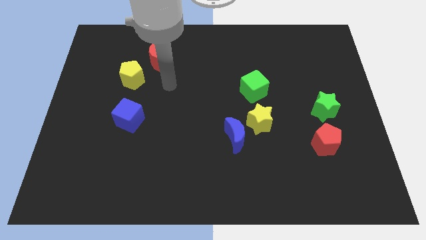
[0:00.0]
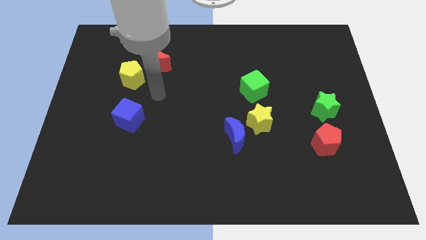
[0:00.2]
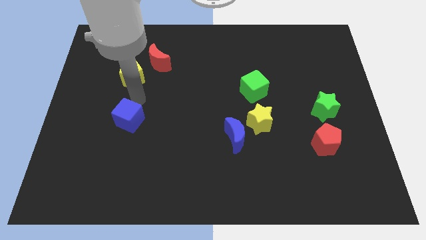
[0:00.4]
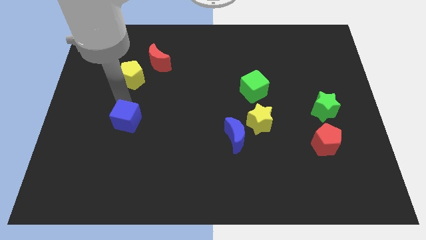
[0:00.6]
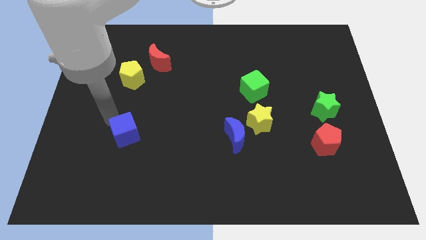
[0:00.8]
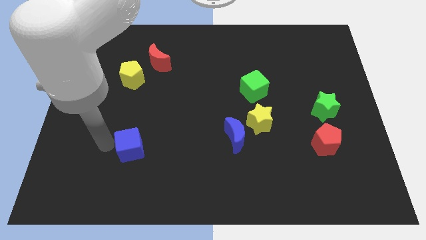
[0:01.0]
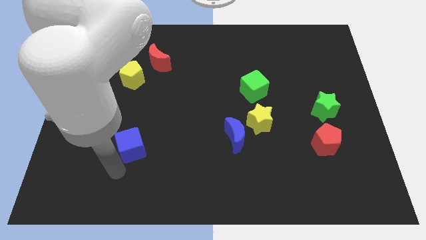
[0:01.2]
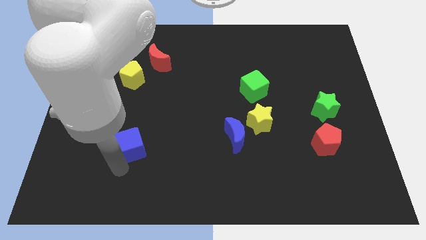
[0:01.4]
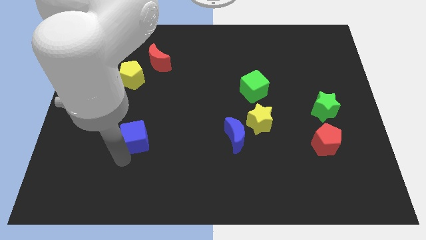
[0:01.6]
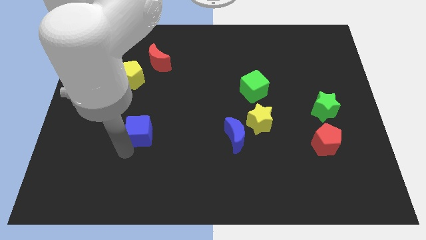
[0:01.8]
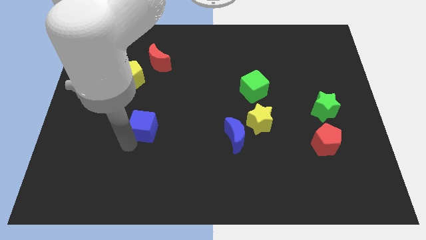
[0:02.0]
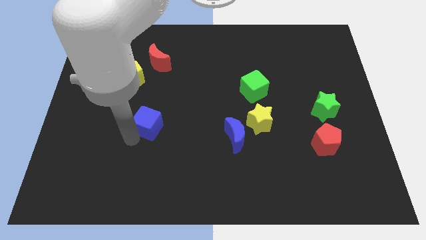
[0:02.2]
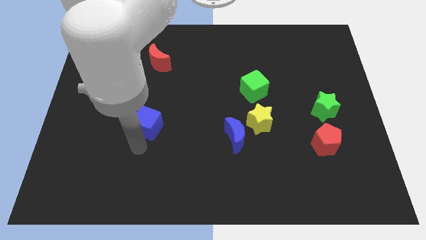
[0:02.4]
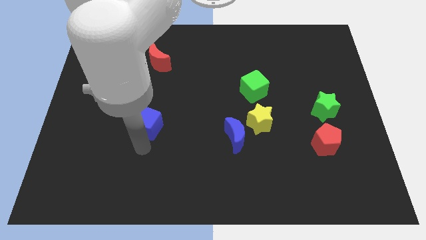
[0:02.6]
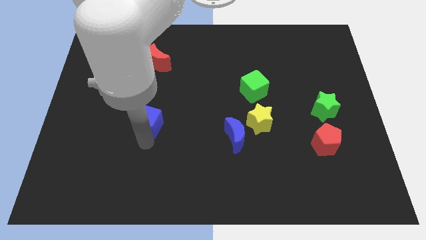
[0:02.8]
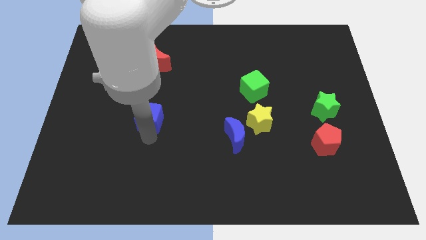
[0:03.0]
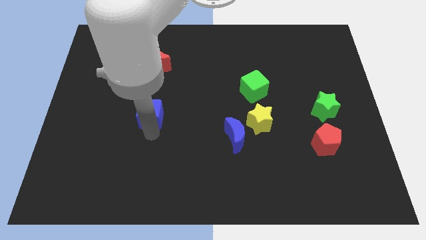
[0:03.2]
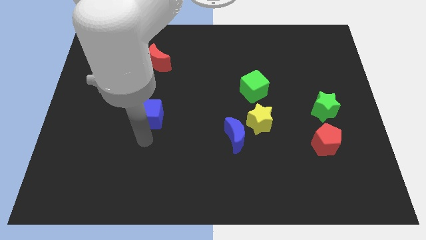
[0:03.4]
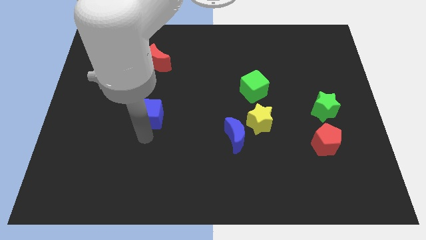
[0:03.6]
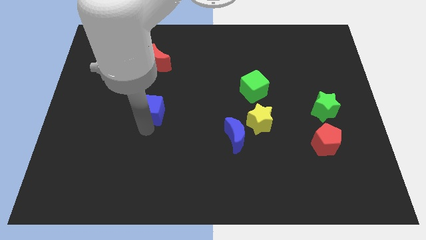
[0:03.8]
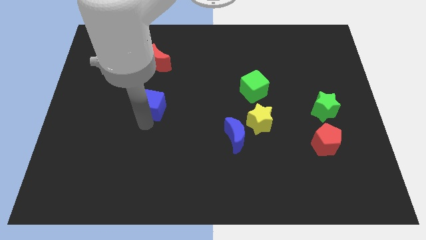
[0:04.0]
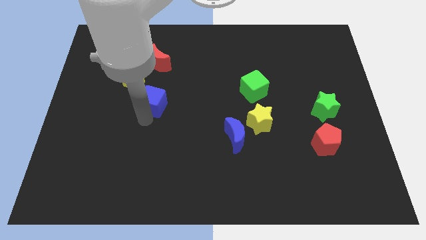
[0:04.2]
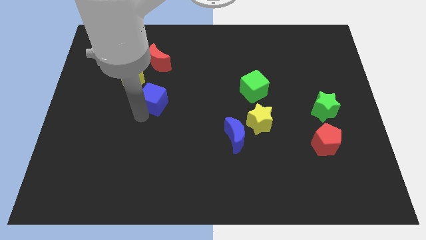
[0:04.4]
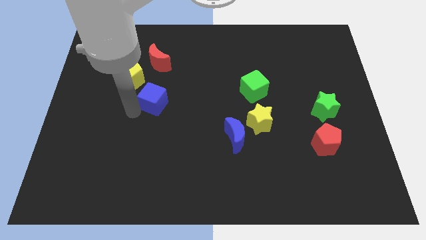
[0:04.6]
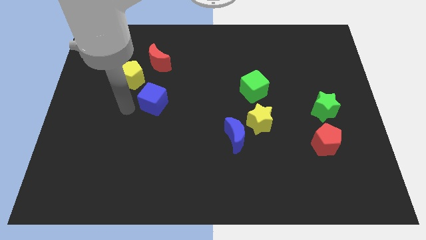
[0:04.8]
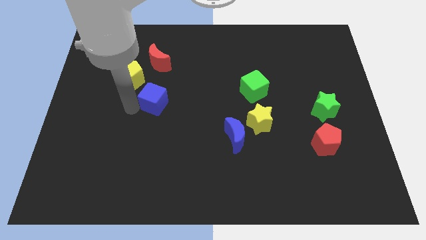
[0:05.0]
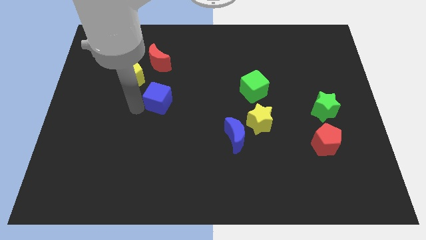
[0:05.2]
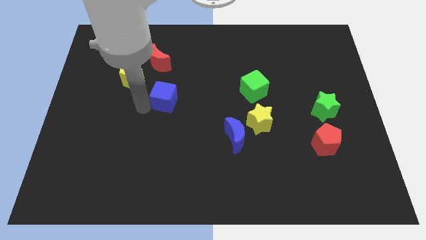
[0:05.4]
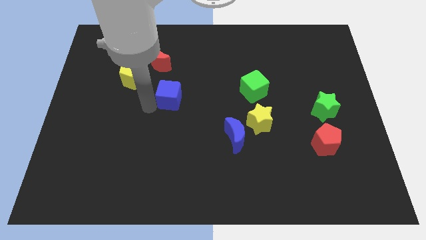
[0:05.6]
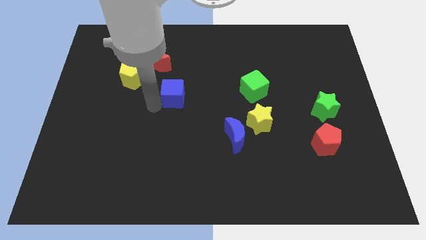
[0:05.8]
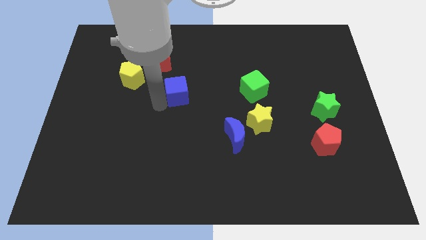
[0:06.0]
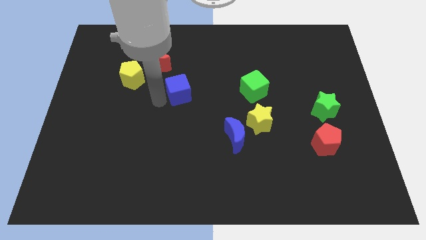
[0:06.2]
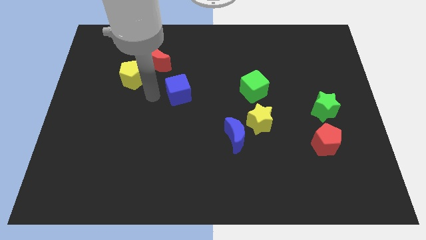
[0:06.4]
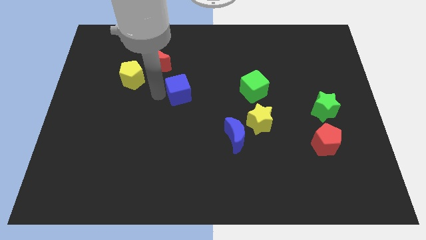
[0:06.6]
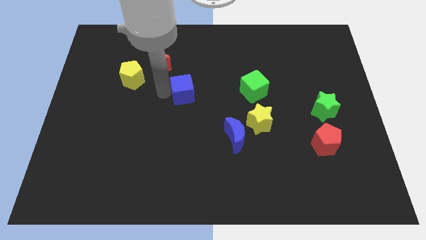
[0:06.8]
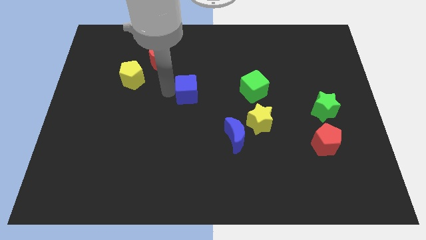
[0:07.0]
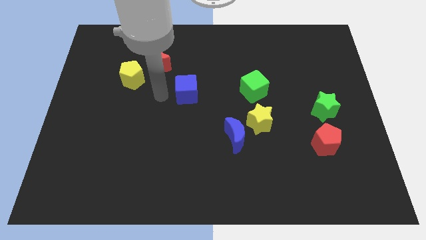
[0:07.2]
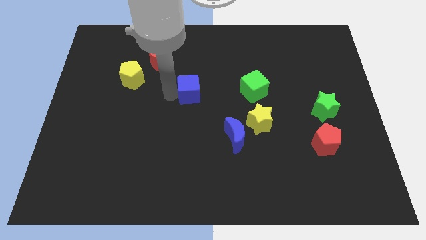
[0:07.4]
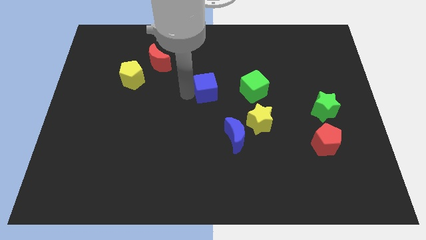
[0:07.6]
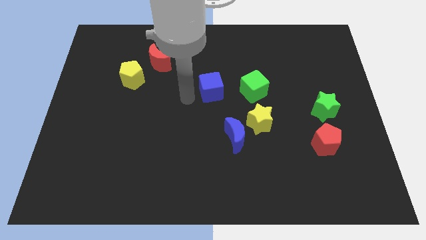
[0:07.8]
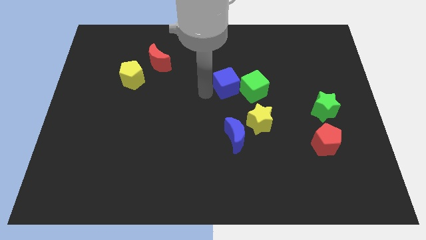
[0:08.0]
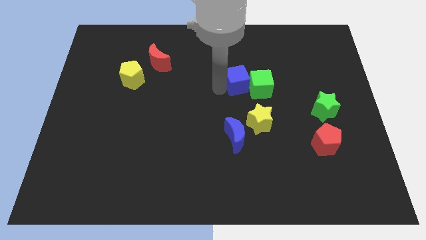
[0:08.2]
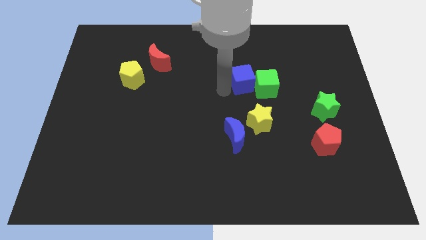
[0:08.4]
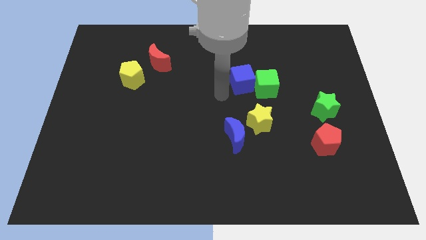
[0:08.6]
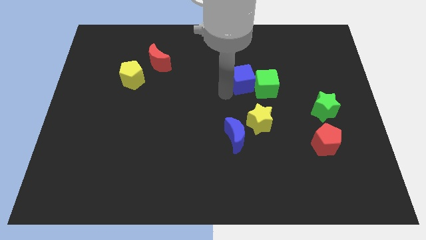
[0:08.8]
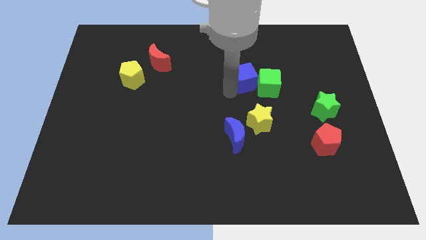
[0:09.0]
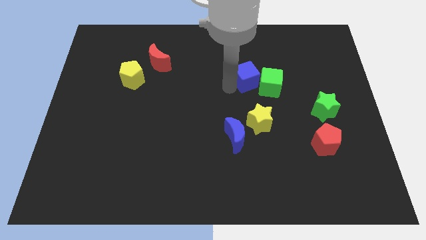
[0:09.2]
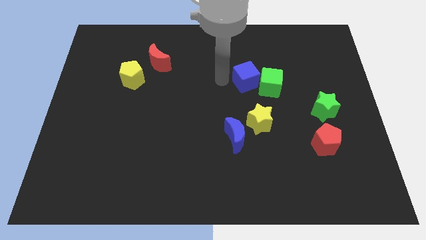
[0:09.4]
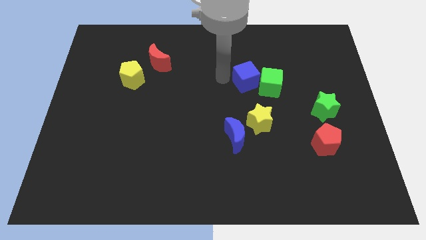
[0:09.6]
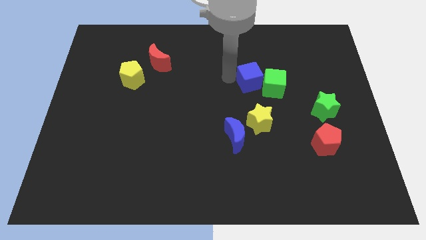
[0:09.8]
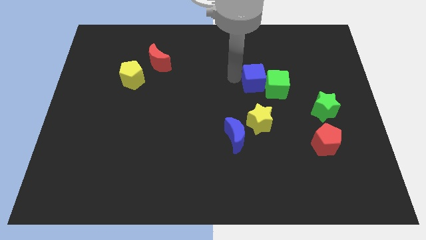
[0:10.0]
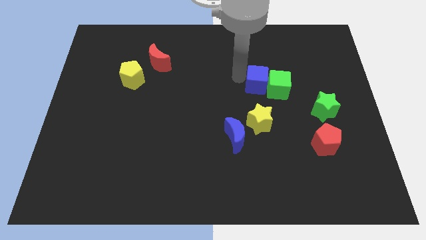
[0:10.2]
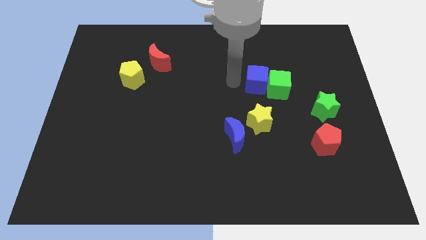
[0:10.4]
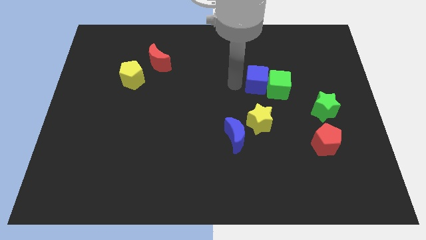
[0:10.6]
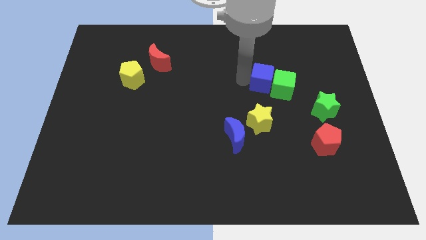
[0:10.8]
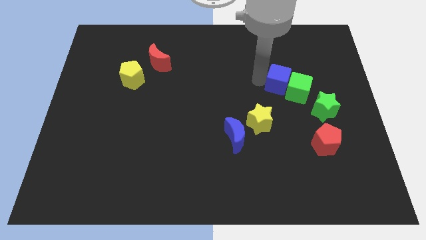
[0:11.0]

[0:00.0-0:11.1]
move the blue cube diagonally up and to the left of the green star

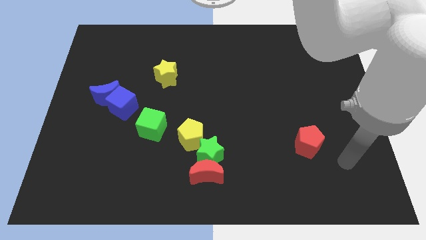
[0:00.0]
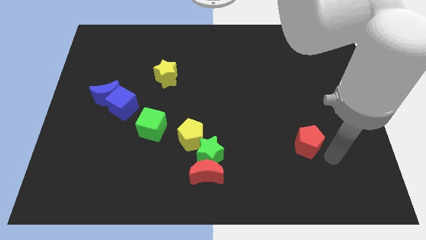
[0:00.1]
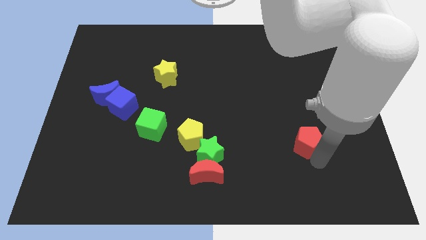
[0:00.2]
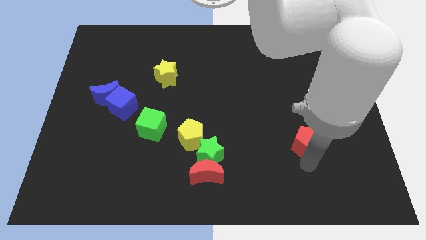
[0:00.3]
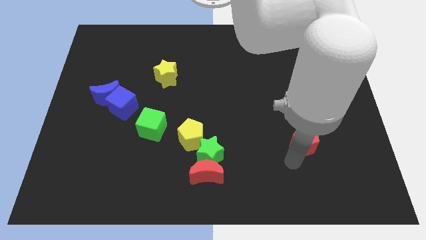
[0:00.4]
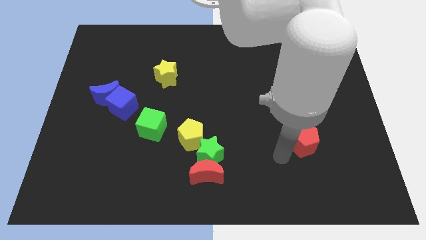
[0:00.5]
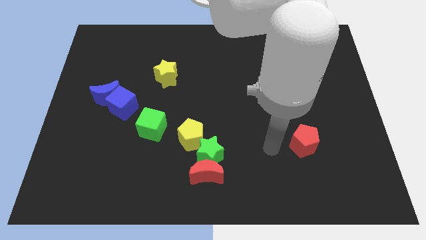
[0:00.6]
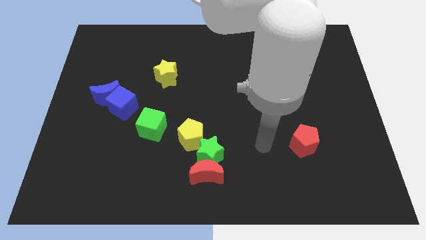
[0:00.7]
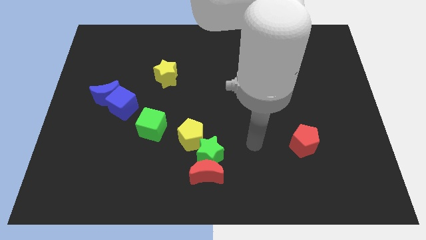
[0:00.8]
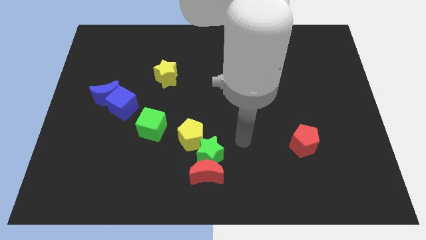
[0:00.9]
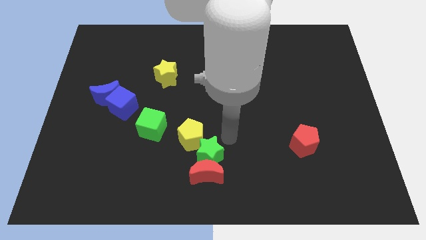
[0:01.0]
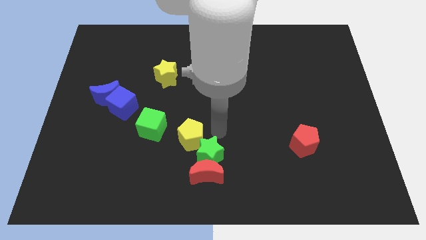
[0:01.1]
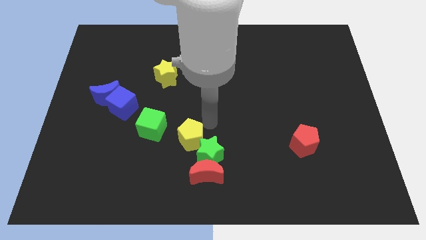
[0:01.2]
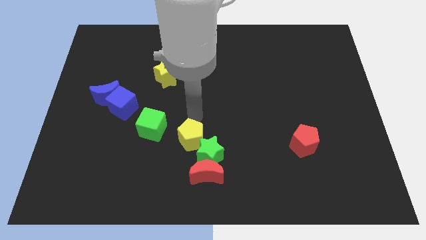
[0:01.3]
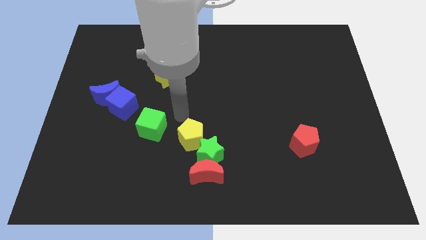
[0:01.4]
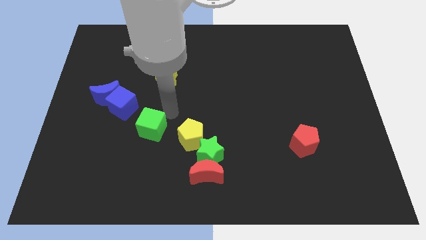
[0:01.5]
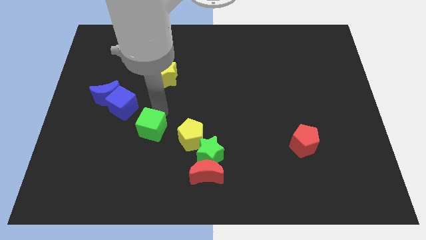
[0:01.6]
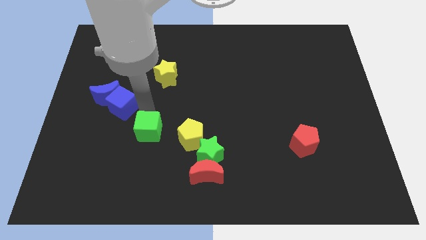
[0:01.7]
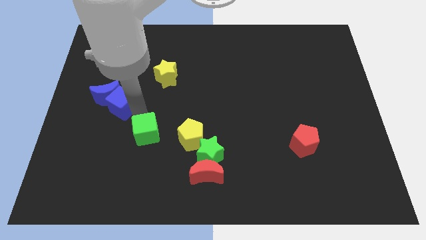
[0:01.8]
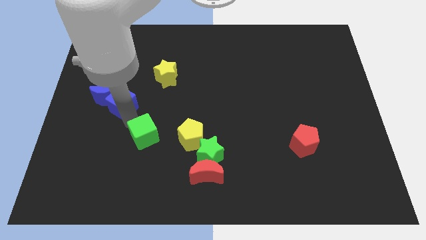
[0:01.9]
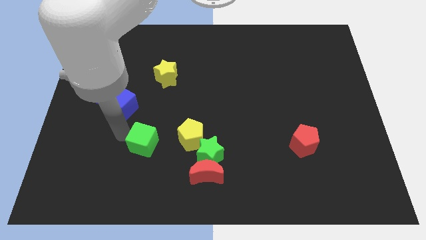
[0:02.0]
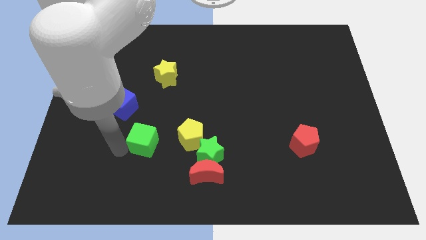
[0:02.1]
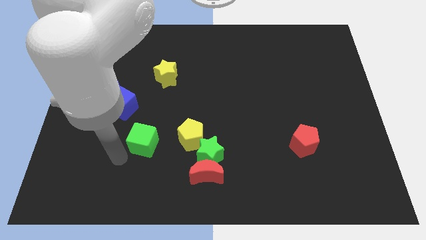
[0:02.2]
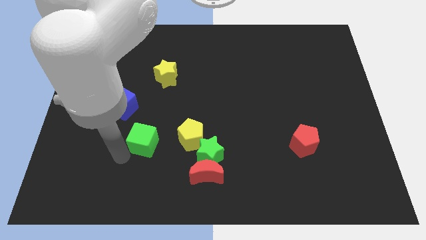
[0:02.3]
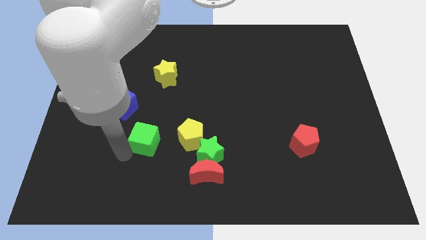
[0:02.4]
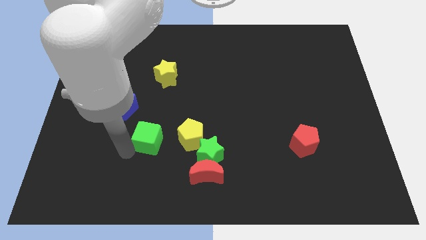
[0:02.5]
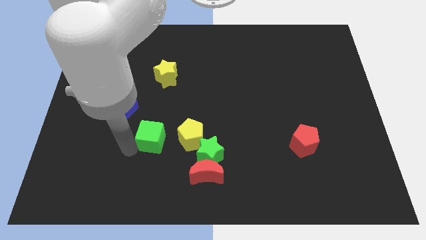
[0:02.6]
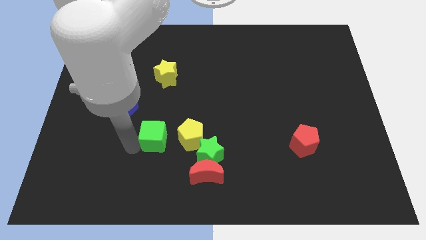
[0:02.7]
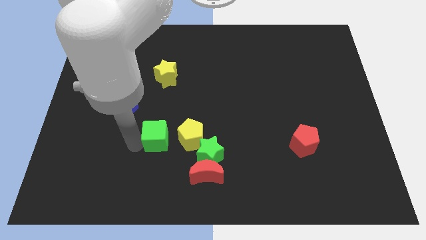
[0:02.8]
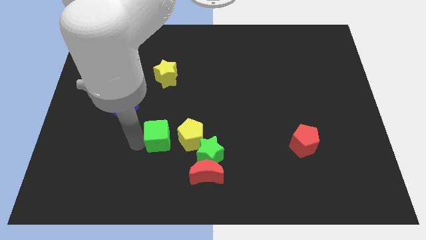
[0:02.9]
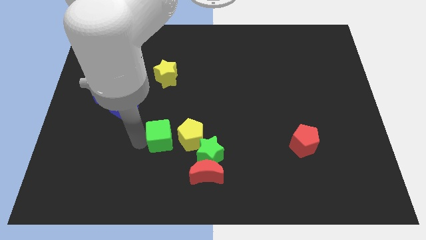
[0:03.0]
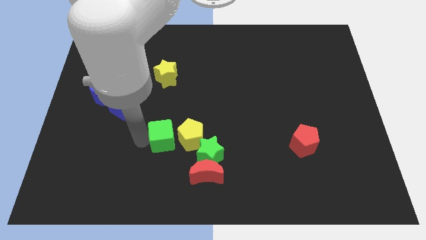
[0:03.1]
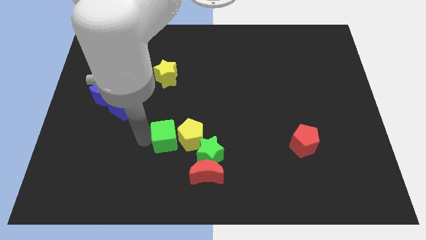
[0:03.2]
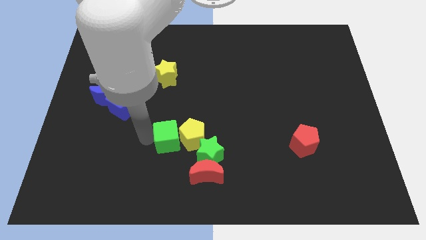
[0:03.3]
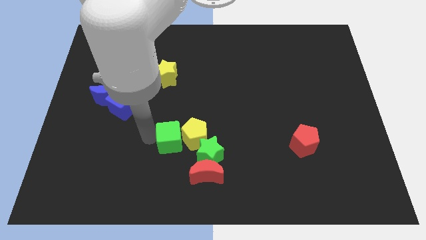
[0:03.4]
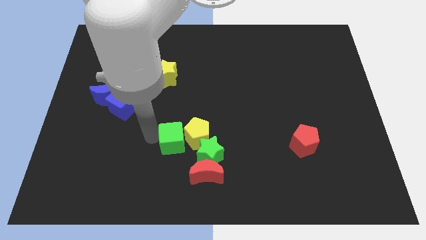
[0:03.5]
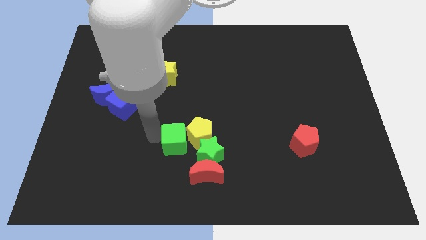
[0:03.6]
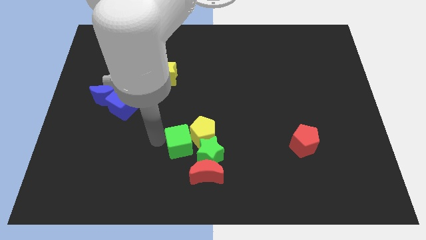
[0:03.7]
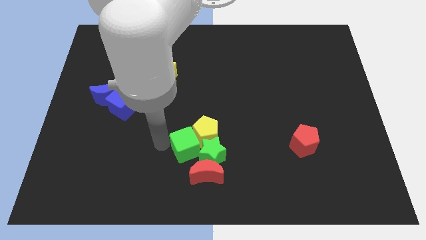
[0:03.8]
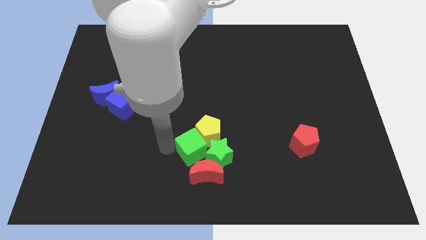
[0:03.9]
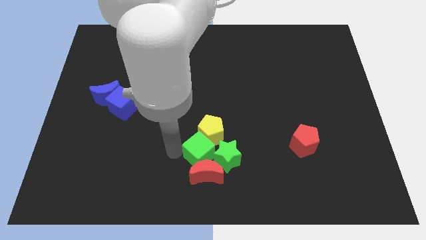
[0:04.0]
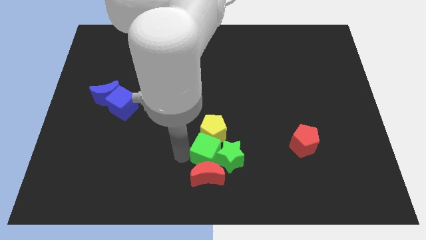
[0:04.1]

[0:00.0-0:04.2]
push the green cube diagonally down and to the right of the yellow pentagon
